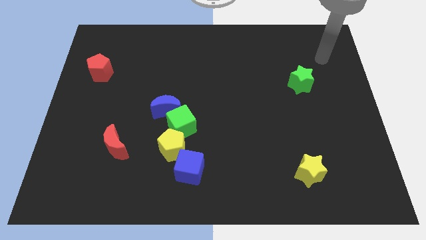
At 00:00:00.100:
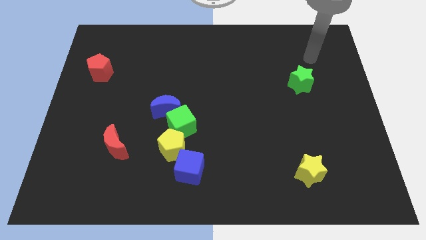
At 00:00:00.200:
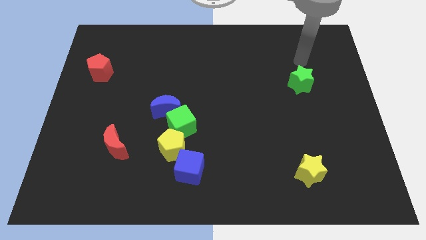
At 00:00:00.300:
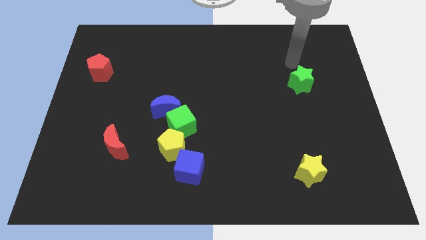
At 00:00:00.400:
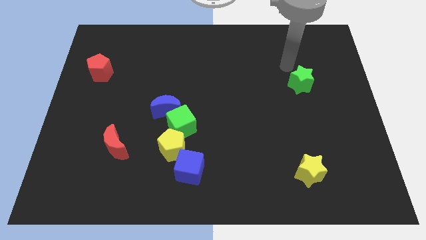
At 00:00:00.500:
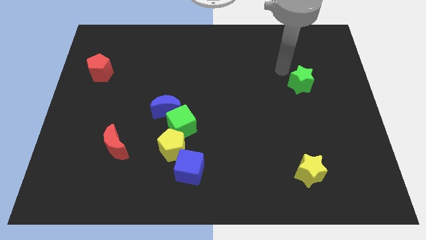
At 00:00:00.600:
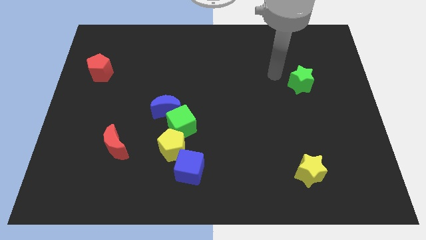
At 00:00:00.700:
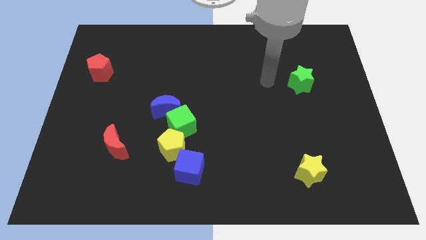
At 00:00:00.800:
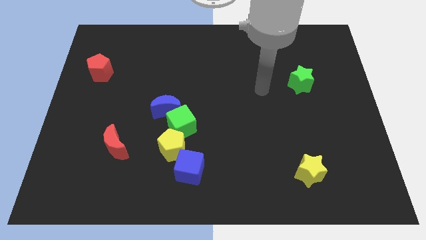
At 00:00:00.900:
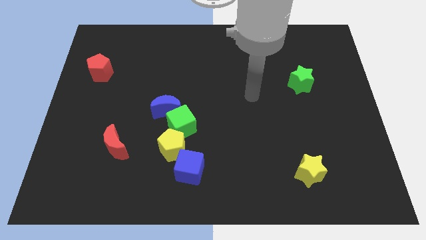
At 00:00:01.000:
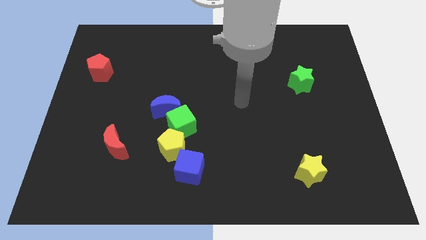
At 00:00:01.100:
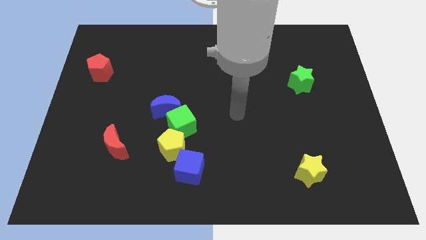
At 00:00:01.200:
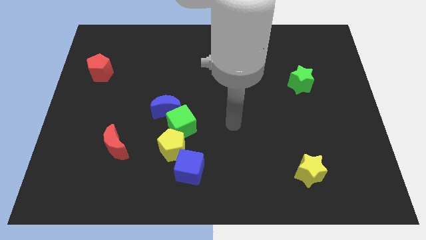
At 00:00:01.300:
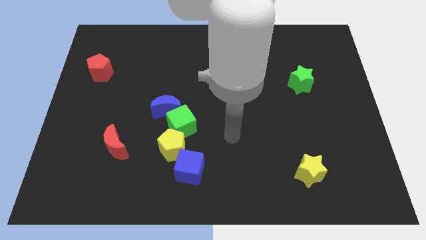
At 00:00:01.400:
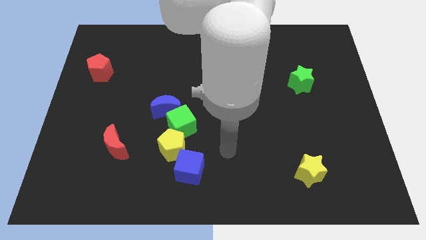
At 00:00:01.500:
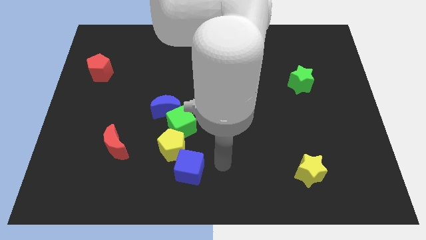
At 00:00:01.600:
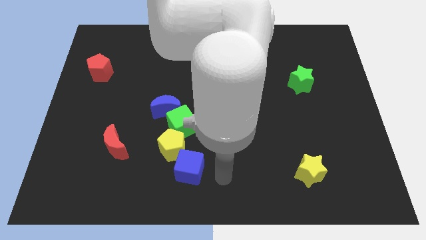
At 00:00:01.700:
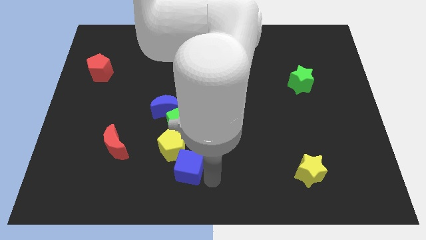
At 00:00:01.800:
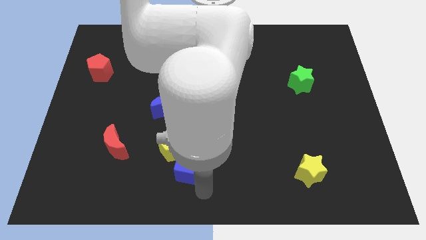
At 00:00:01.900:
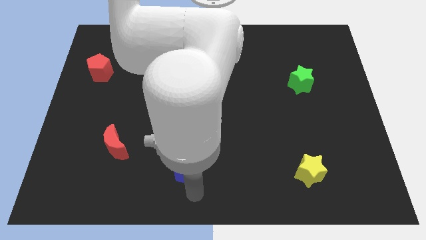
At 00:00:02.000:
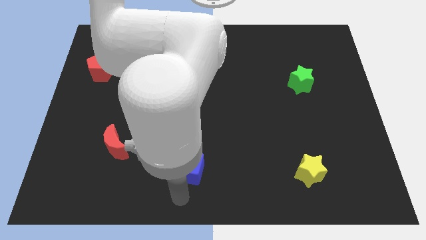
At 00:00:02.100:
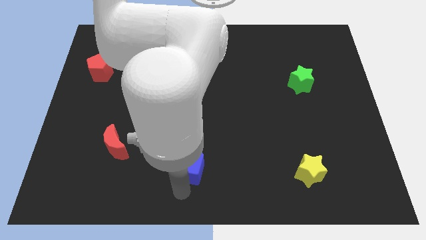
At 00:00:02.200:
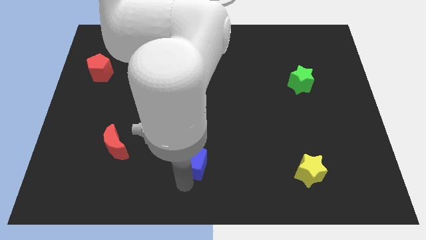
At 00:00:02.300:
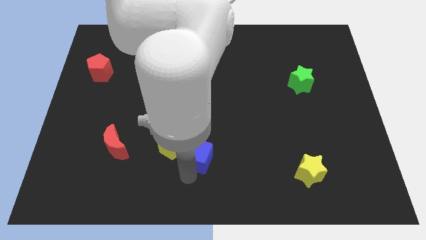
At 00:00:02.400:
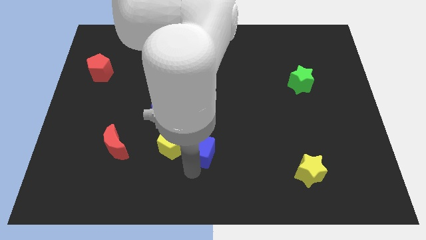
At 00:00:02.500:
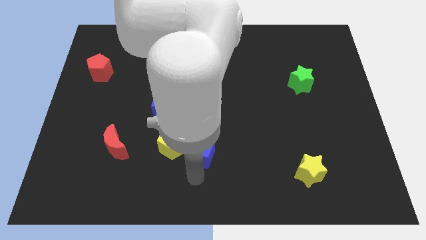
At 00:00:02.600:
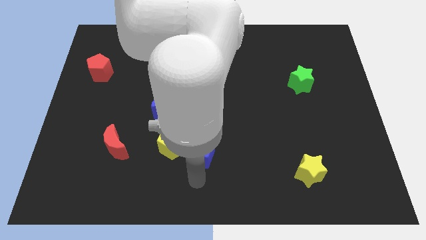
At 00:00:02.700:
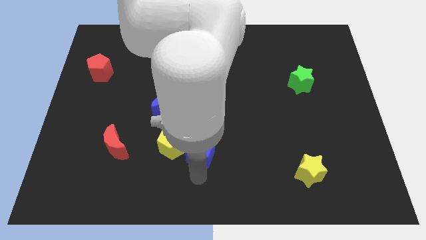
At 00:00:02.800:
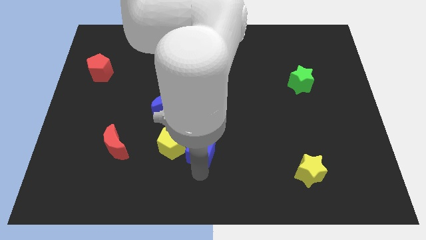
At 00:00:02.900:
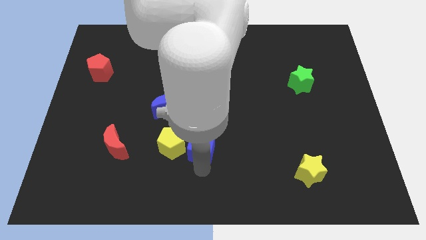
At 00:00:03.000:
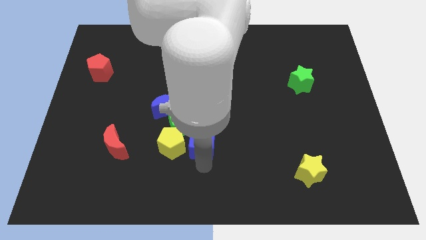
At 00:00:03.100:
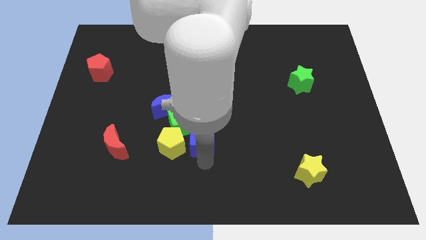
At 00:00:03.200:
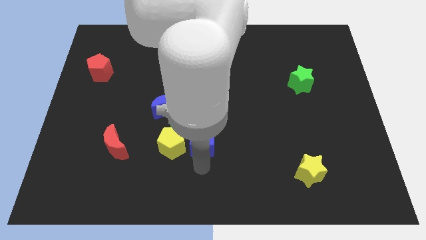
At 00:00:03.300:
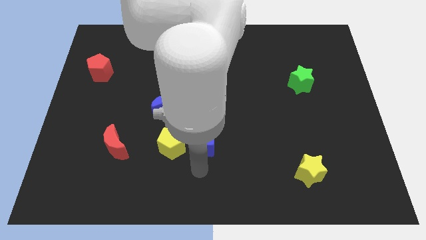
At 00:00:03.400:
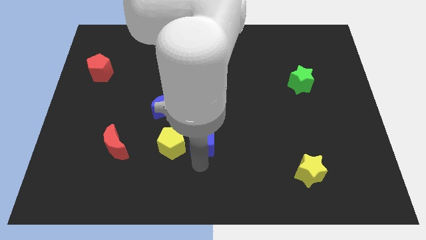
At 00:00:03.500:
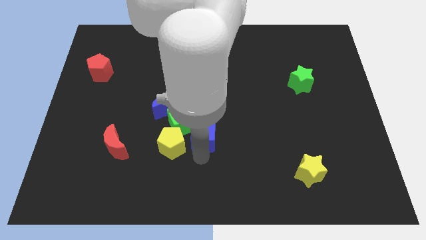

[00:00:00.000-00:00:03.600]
move the blue cube a little bit up

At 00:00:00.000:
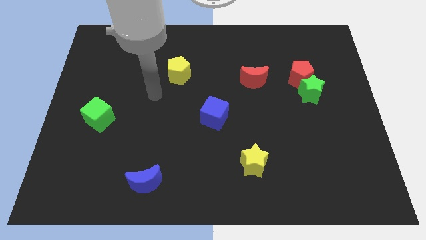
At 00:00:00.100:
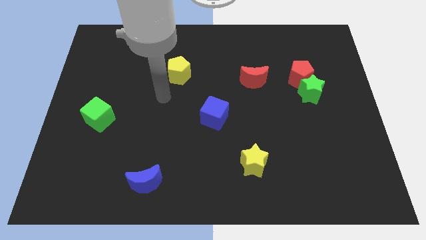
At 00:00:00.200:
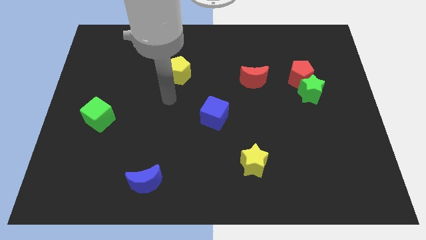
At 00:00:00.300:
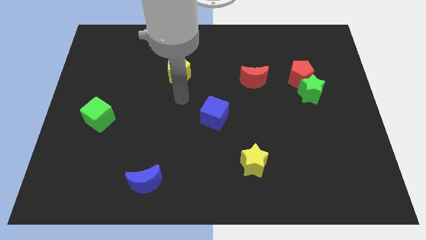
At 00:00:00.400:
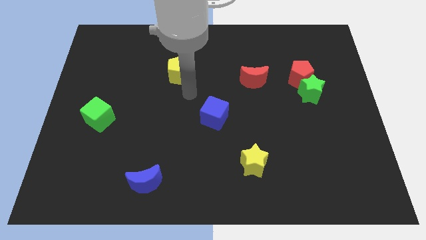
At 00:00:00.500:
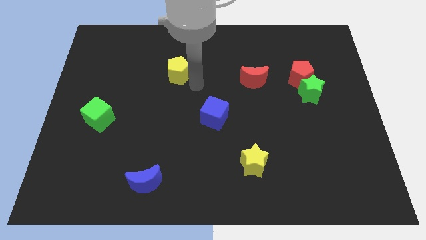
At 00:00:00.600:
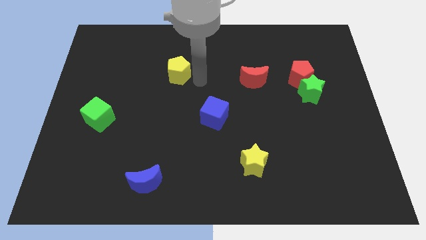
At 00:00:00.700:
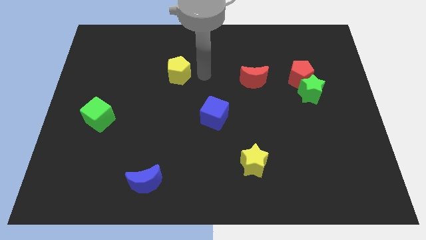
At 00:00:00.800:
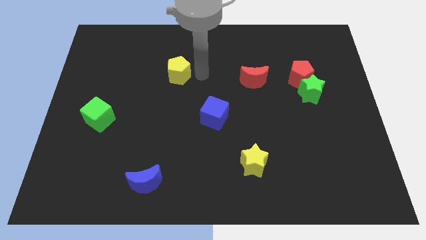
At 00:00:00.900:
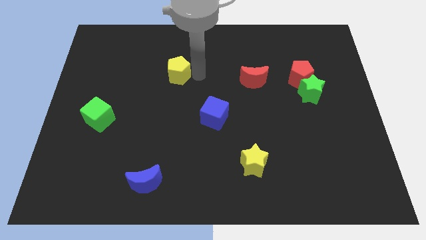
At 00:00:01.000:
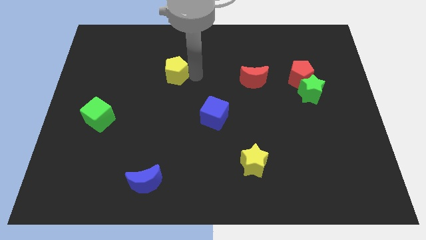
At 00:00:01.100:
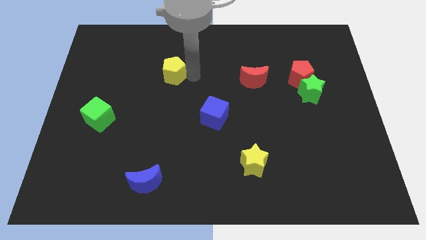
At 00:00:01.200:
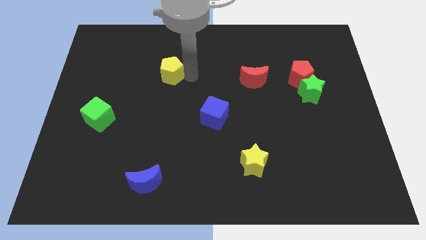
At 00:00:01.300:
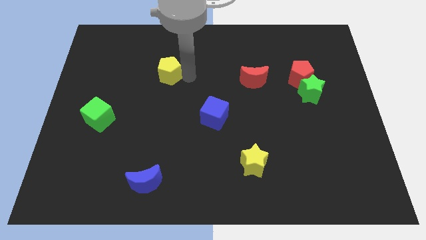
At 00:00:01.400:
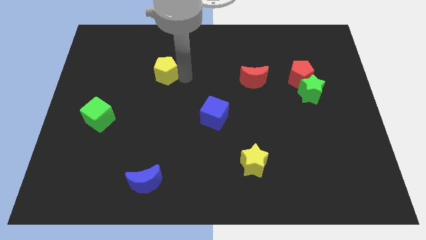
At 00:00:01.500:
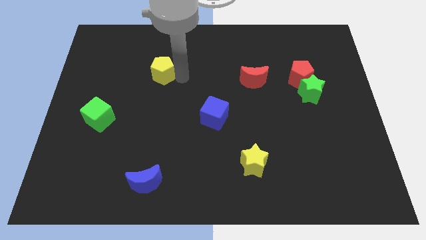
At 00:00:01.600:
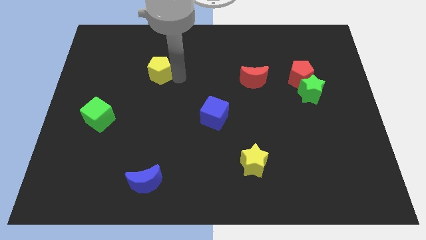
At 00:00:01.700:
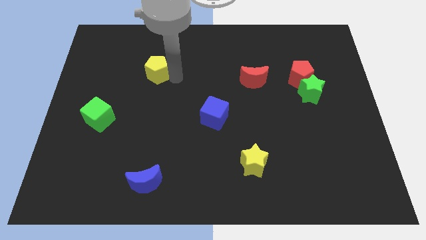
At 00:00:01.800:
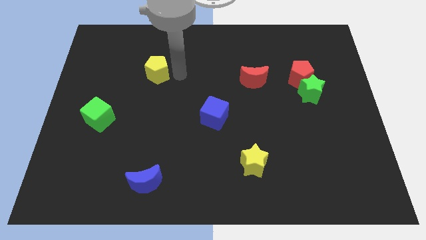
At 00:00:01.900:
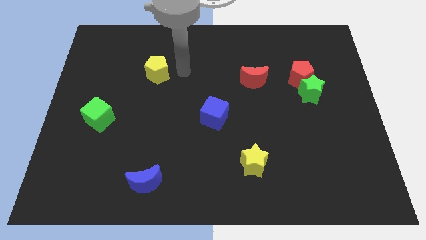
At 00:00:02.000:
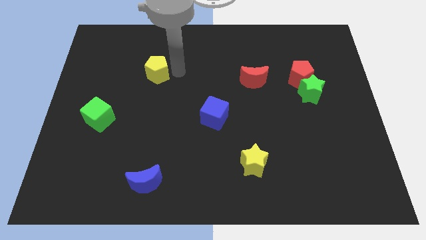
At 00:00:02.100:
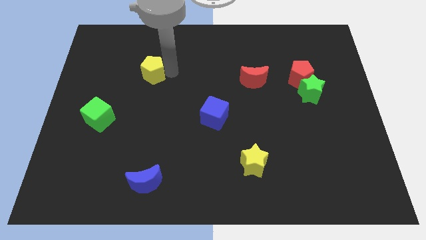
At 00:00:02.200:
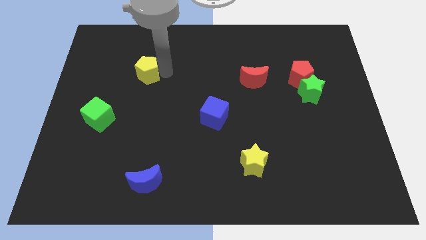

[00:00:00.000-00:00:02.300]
push the yellow pentagon slightly to the left

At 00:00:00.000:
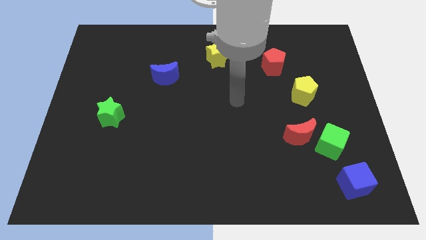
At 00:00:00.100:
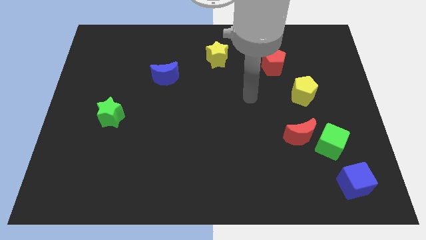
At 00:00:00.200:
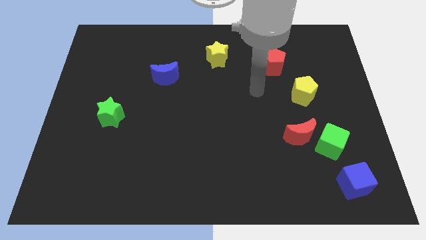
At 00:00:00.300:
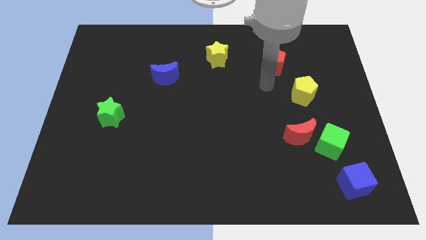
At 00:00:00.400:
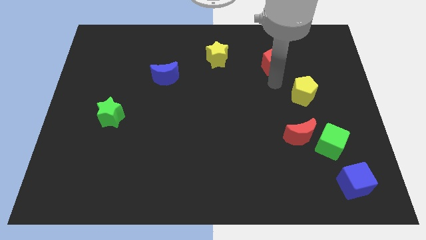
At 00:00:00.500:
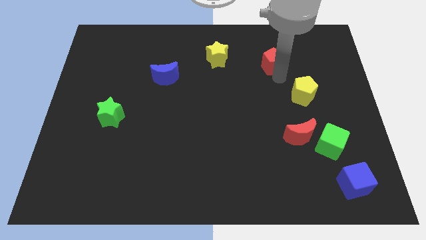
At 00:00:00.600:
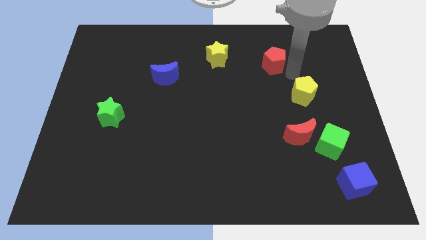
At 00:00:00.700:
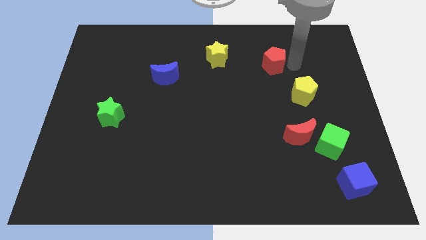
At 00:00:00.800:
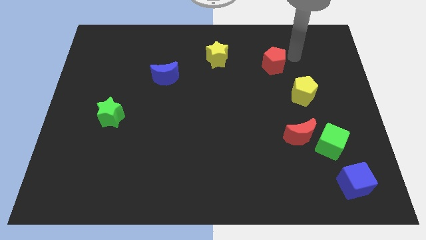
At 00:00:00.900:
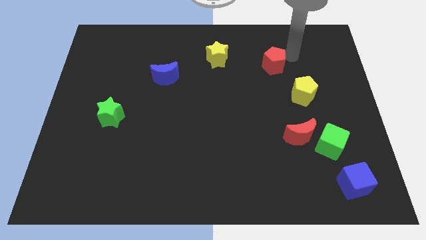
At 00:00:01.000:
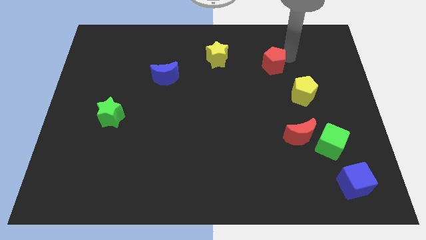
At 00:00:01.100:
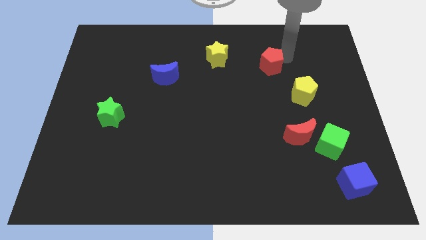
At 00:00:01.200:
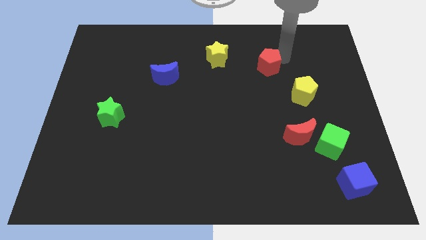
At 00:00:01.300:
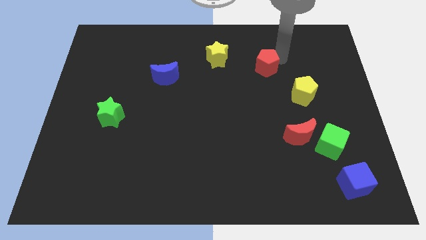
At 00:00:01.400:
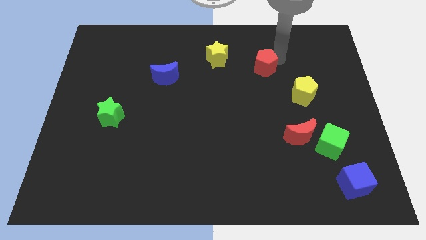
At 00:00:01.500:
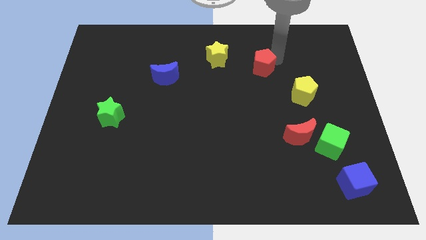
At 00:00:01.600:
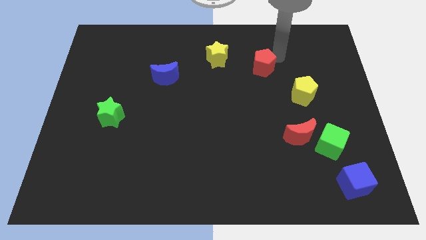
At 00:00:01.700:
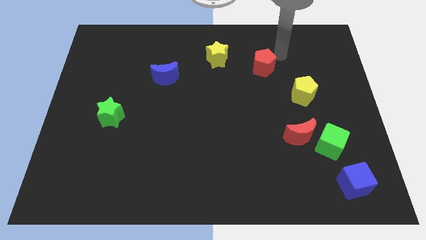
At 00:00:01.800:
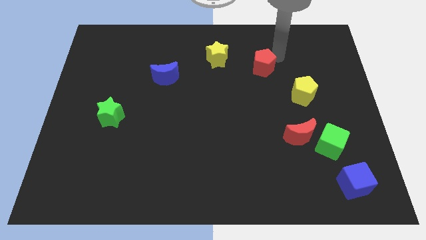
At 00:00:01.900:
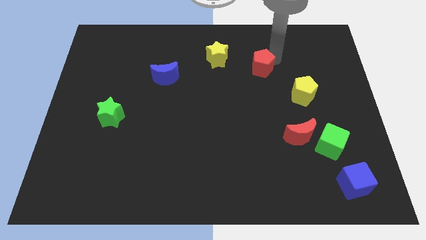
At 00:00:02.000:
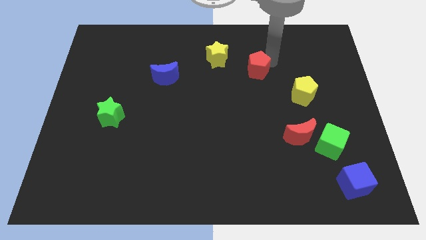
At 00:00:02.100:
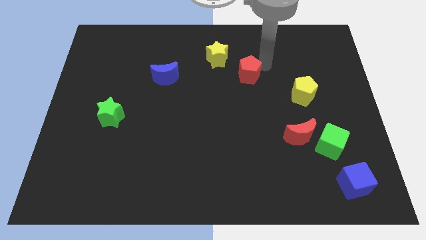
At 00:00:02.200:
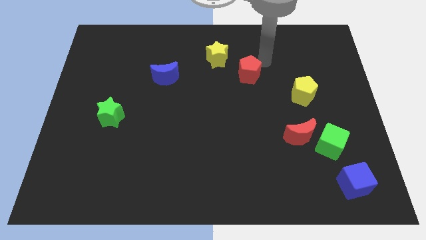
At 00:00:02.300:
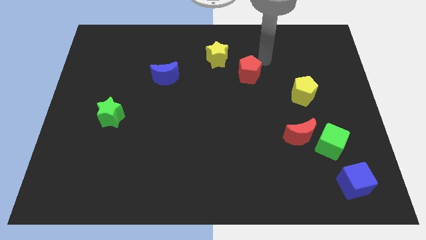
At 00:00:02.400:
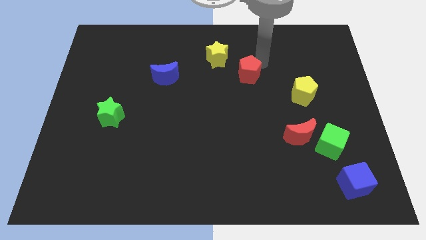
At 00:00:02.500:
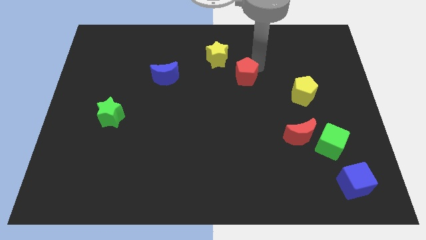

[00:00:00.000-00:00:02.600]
slightly move the red pentagon down and then left

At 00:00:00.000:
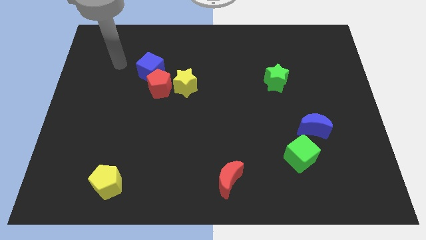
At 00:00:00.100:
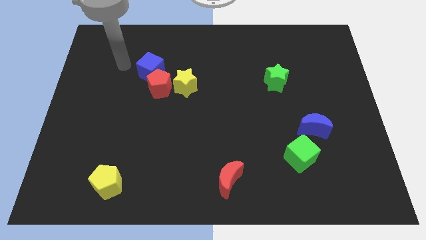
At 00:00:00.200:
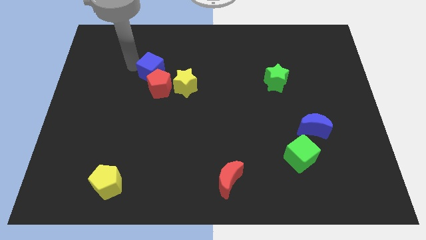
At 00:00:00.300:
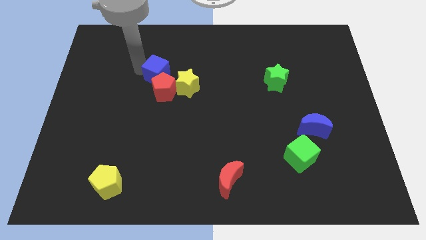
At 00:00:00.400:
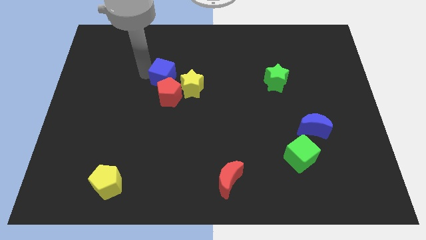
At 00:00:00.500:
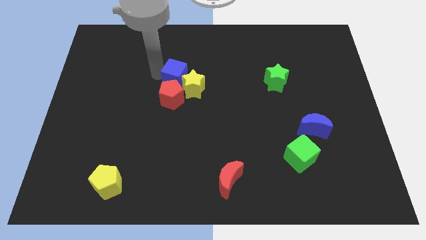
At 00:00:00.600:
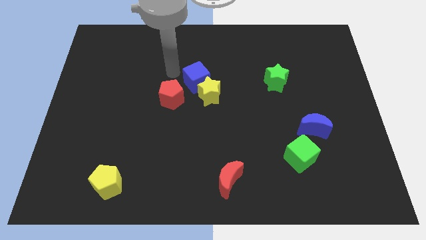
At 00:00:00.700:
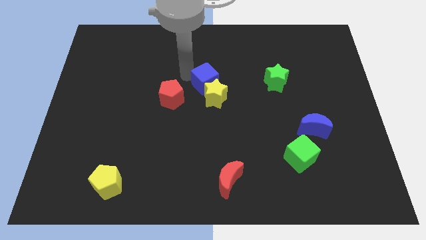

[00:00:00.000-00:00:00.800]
slightly push the yellow star downwards and to the right
